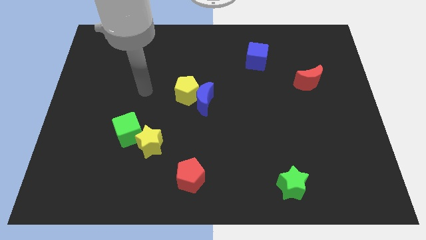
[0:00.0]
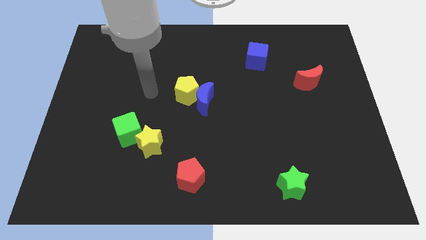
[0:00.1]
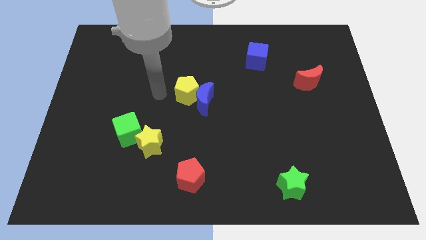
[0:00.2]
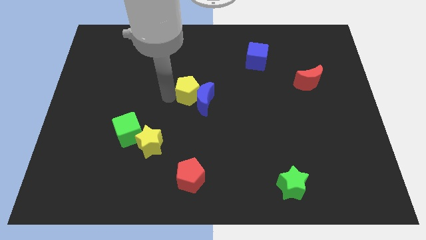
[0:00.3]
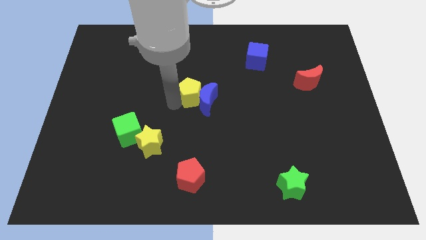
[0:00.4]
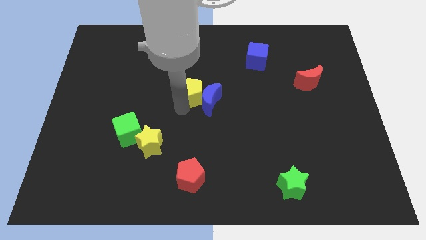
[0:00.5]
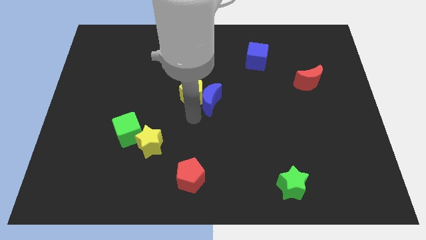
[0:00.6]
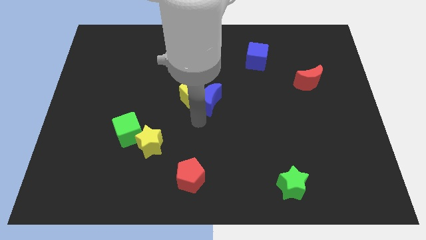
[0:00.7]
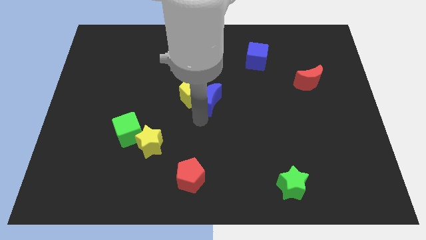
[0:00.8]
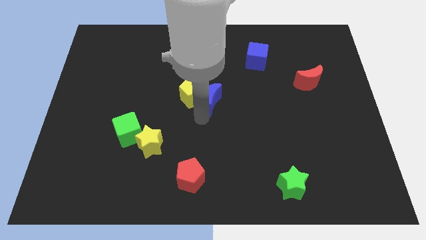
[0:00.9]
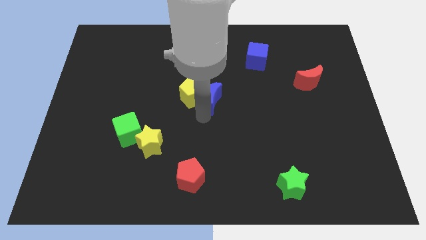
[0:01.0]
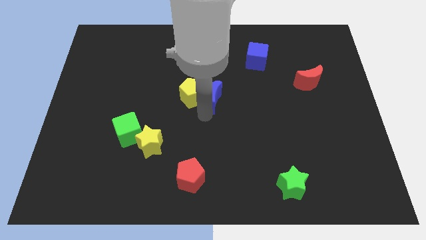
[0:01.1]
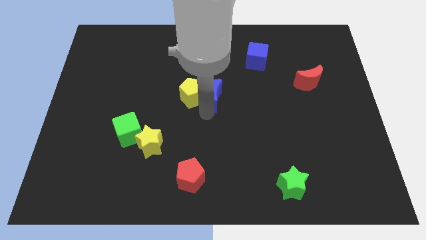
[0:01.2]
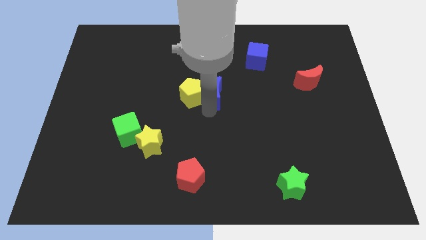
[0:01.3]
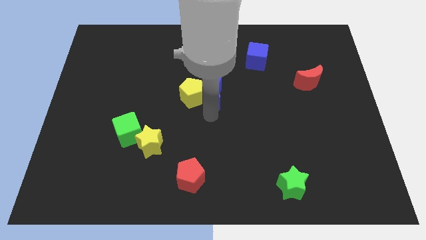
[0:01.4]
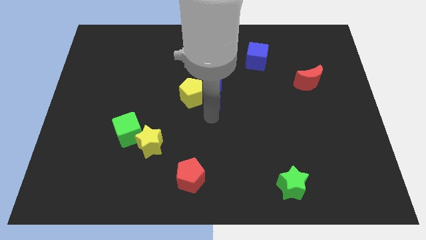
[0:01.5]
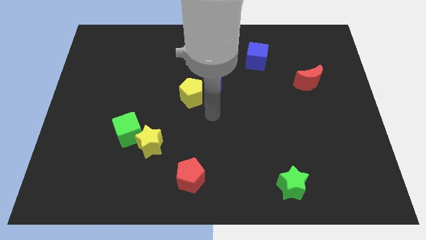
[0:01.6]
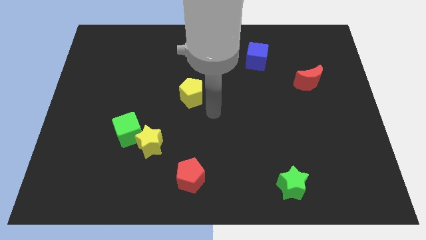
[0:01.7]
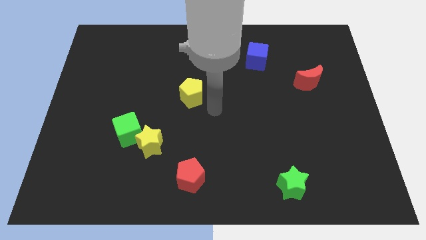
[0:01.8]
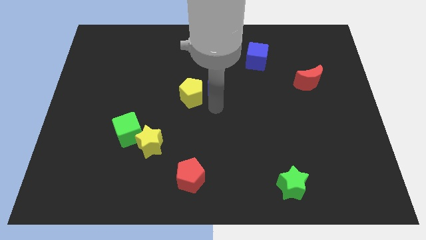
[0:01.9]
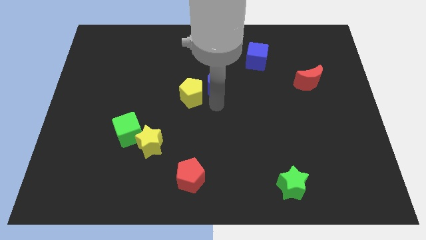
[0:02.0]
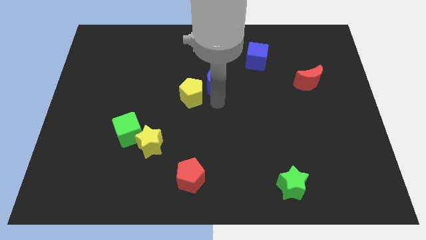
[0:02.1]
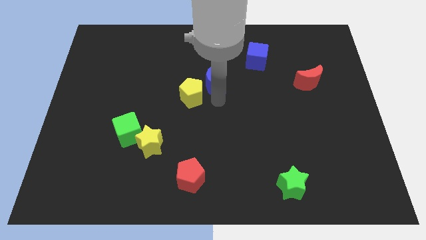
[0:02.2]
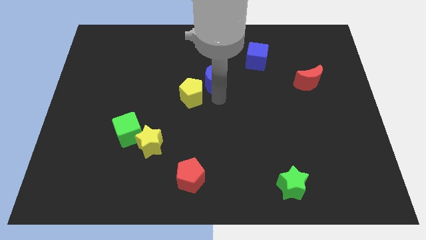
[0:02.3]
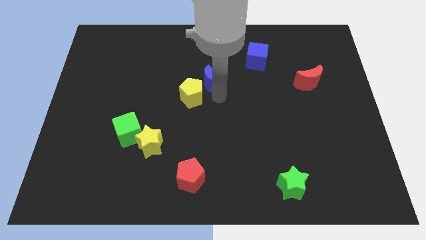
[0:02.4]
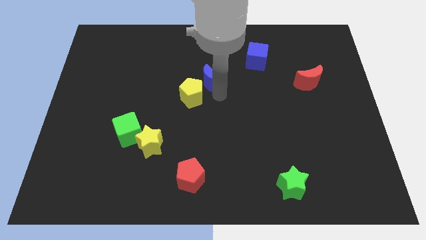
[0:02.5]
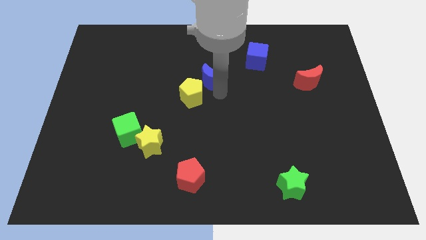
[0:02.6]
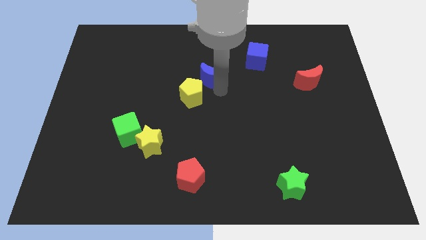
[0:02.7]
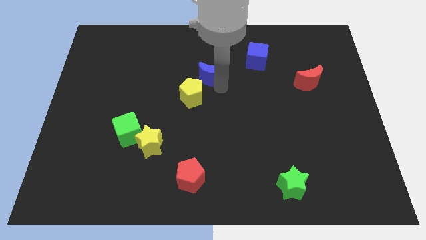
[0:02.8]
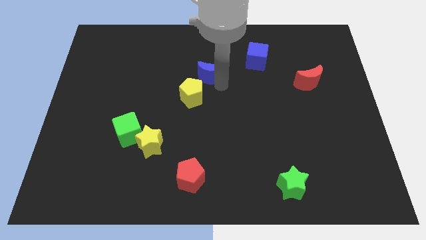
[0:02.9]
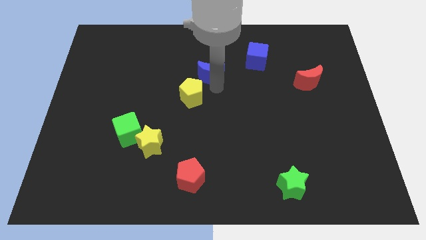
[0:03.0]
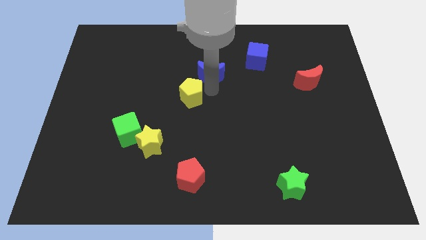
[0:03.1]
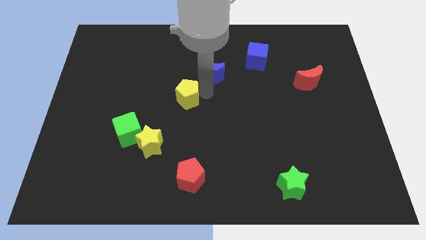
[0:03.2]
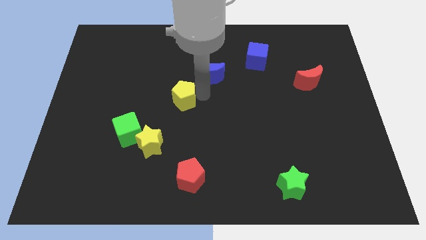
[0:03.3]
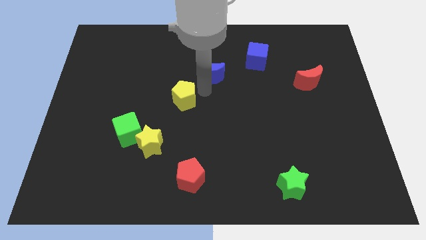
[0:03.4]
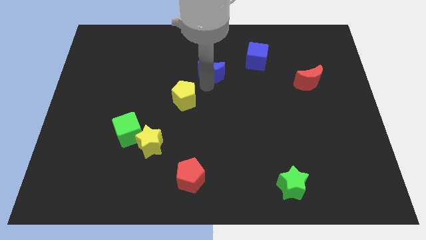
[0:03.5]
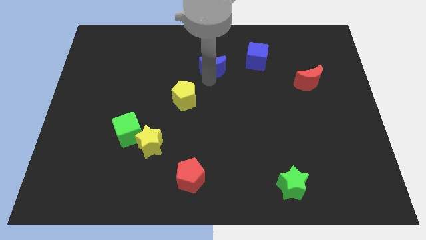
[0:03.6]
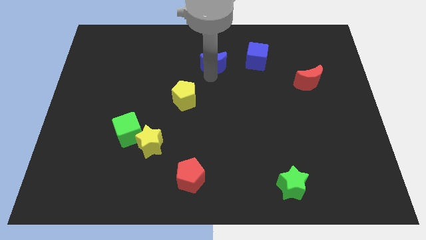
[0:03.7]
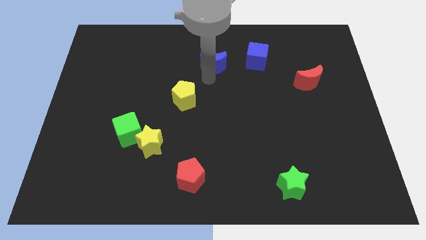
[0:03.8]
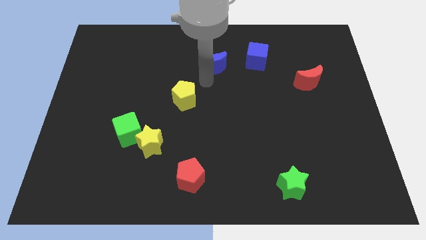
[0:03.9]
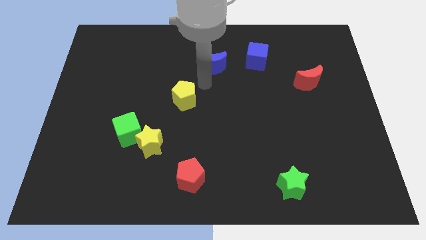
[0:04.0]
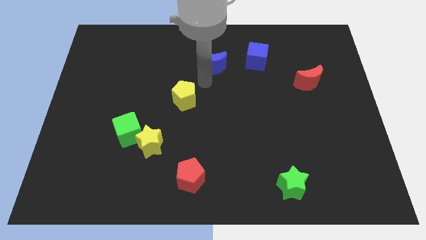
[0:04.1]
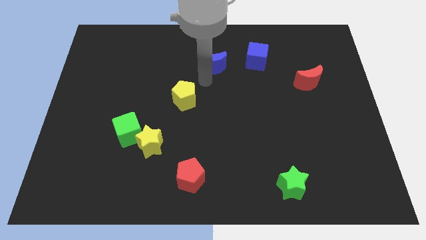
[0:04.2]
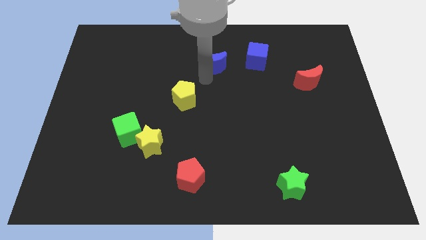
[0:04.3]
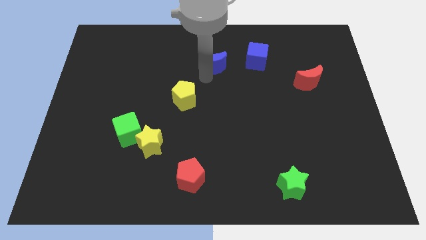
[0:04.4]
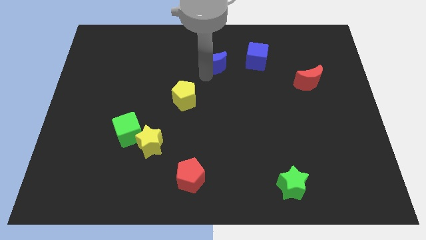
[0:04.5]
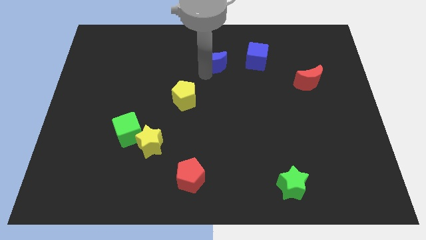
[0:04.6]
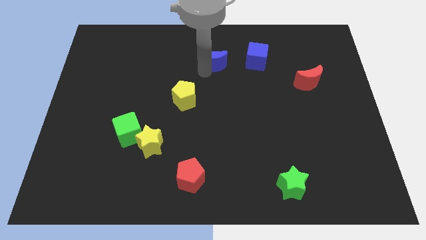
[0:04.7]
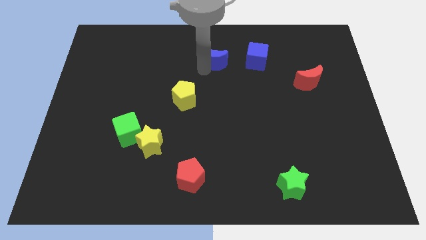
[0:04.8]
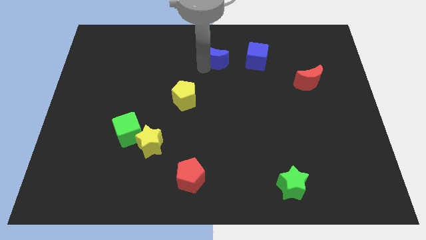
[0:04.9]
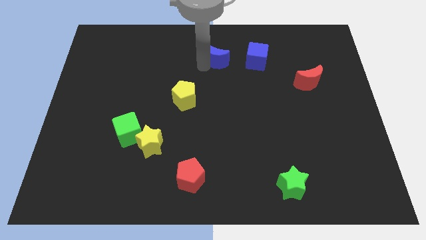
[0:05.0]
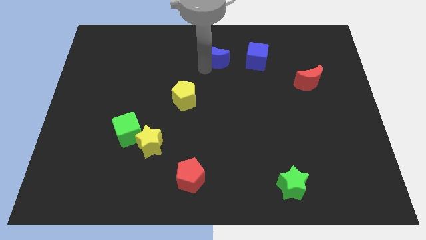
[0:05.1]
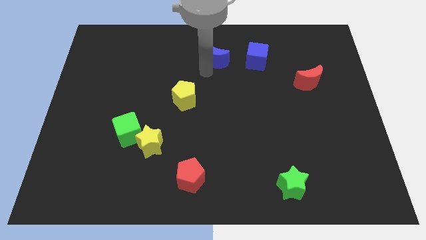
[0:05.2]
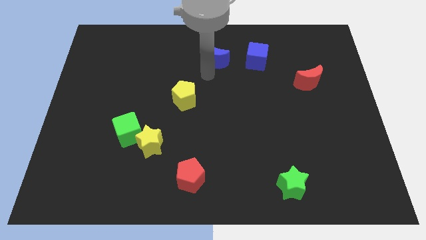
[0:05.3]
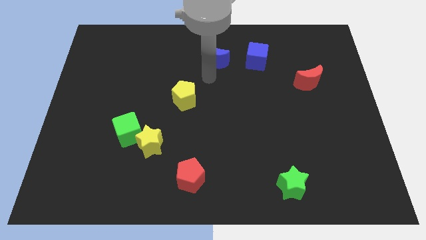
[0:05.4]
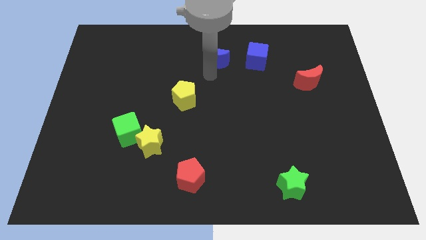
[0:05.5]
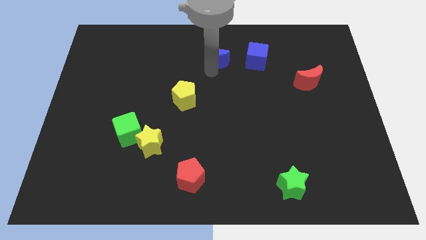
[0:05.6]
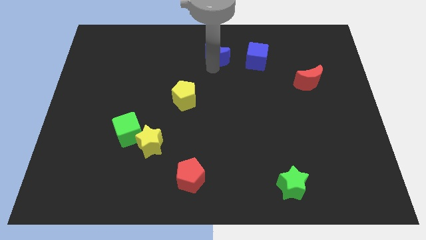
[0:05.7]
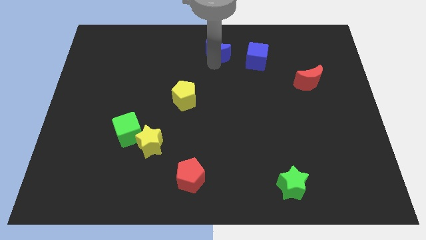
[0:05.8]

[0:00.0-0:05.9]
put the blue moon to the top side

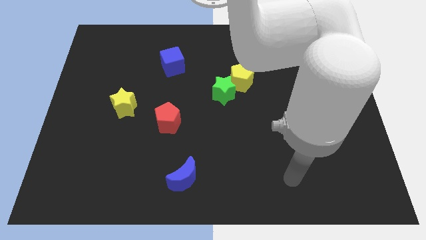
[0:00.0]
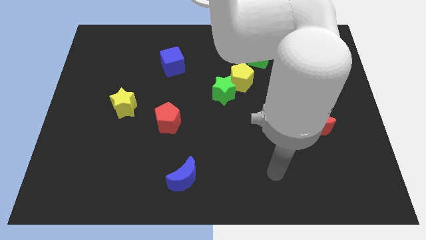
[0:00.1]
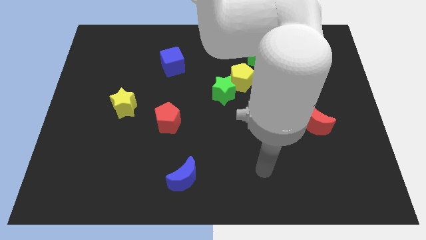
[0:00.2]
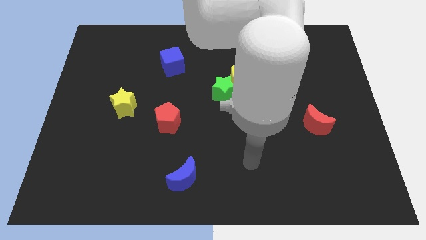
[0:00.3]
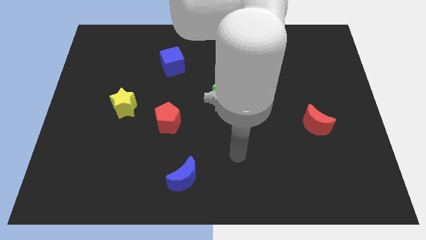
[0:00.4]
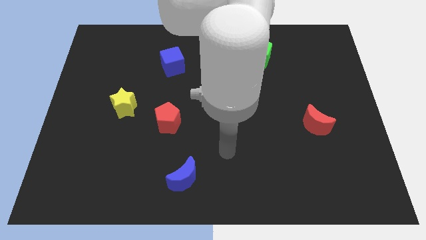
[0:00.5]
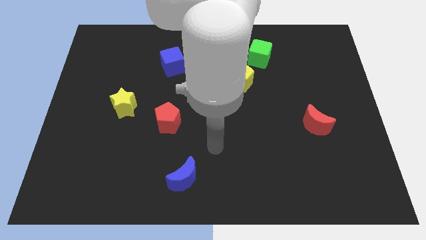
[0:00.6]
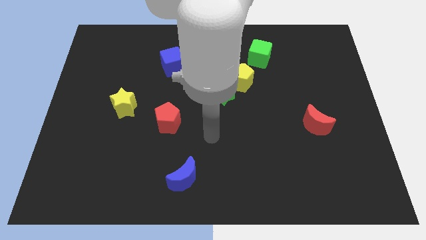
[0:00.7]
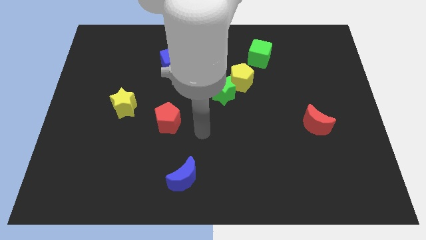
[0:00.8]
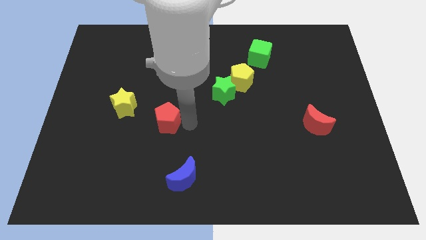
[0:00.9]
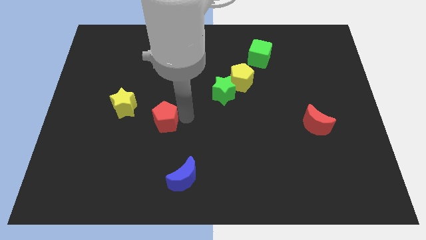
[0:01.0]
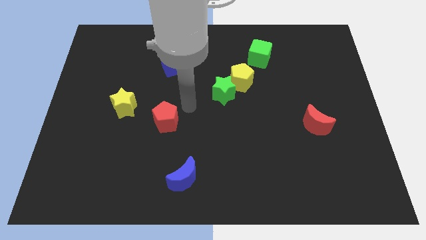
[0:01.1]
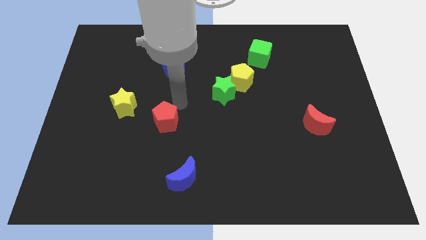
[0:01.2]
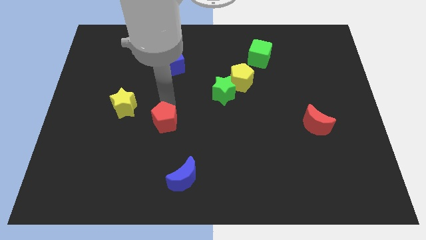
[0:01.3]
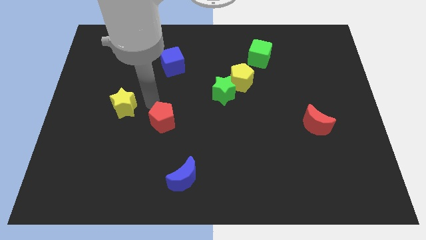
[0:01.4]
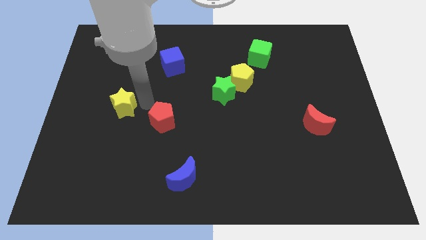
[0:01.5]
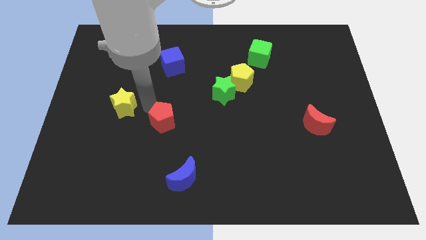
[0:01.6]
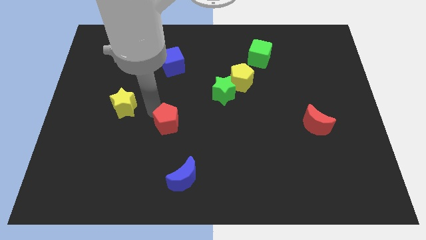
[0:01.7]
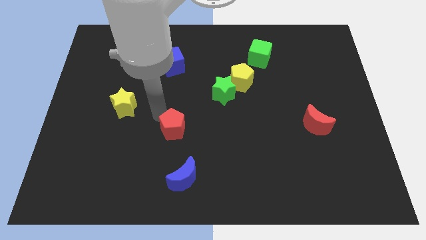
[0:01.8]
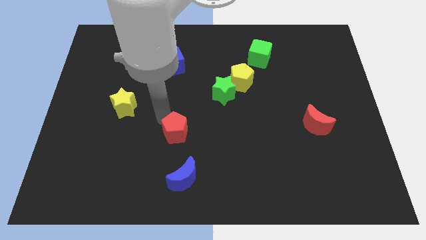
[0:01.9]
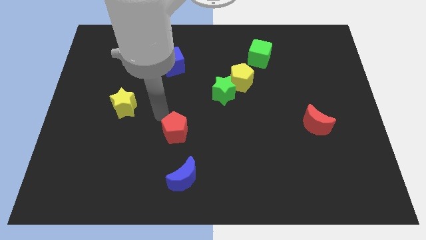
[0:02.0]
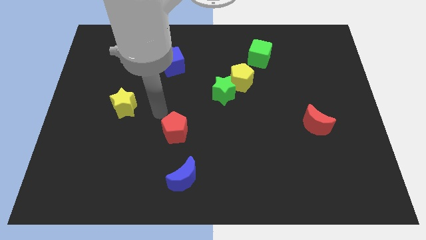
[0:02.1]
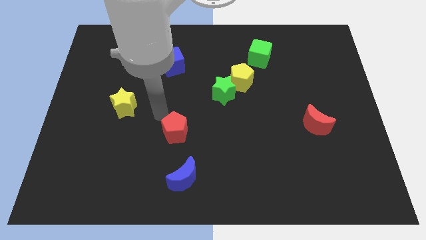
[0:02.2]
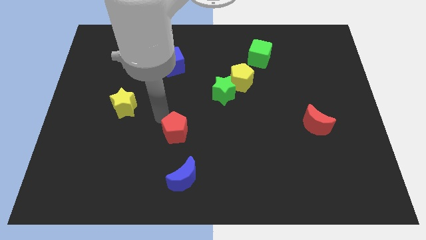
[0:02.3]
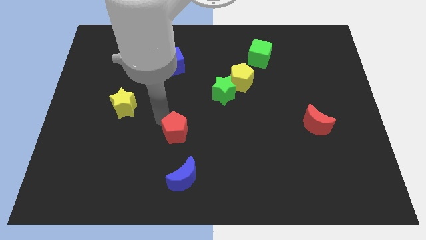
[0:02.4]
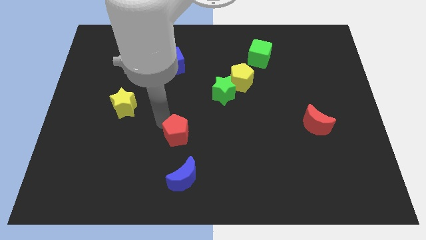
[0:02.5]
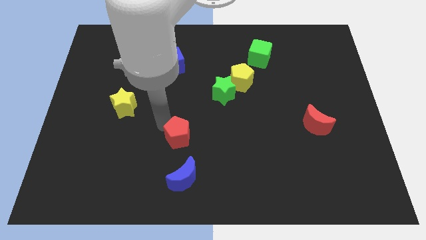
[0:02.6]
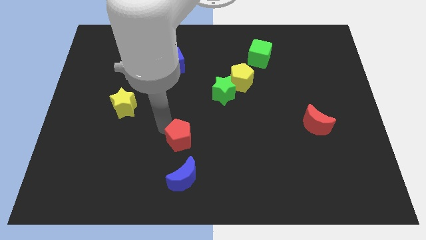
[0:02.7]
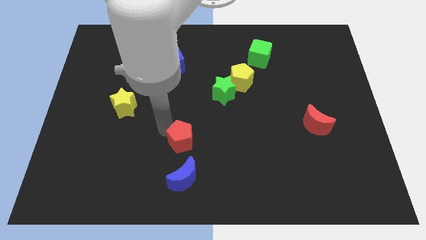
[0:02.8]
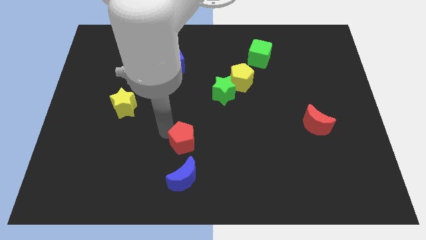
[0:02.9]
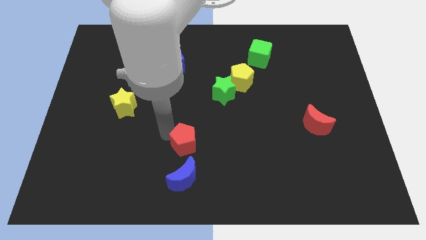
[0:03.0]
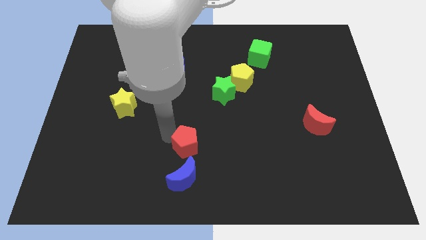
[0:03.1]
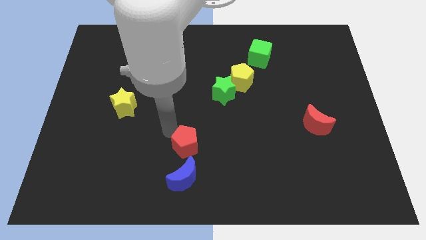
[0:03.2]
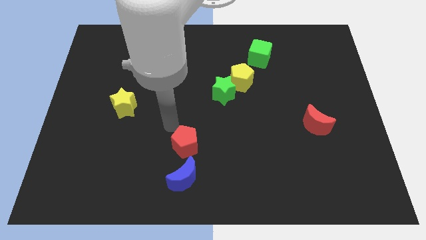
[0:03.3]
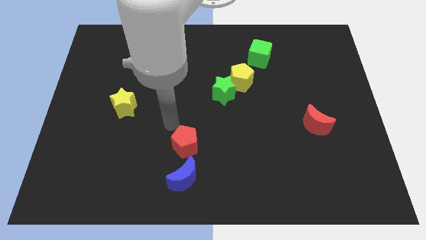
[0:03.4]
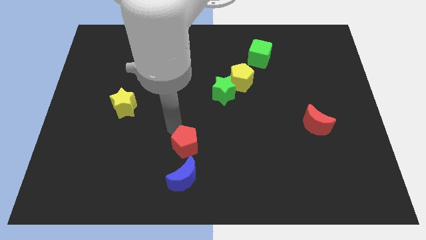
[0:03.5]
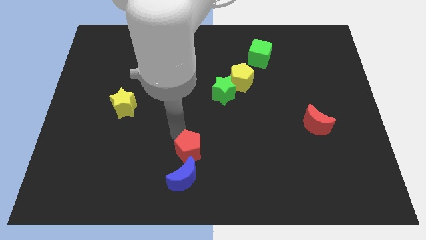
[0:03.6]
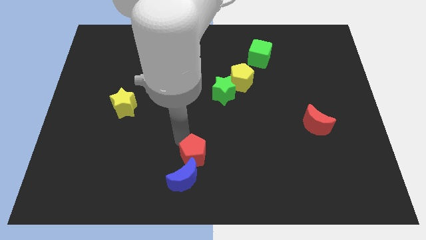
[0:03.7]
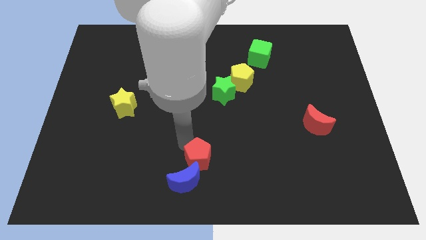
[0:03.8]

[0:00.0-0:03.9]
slide the red pentagon to the bottom side
